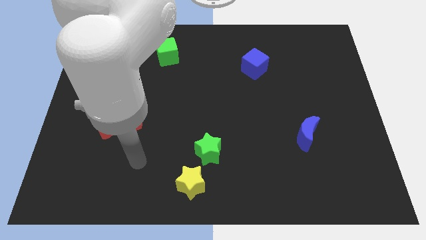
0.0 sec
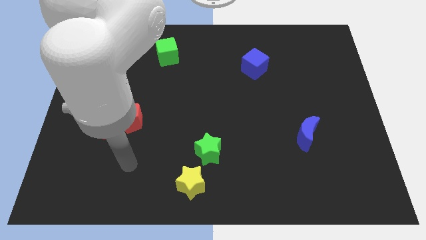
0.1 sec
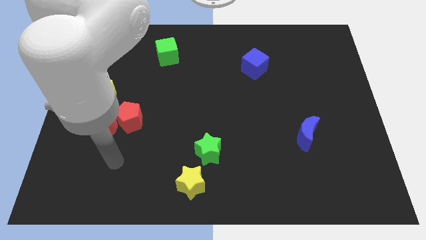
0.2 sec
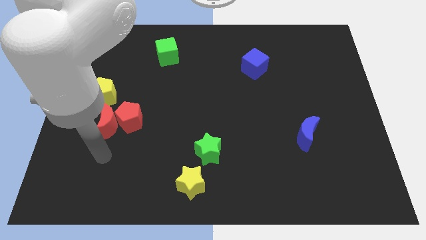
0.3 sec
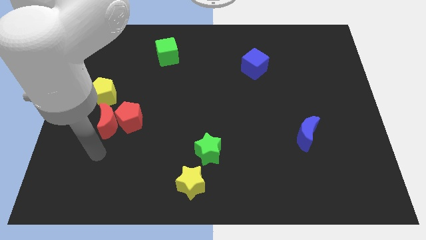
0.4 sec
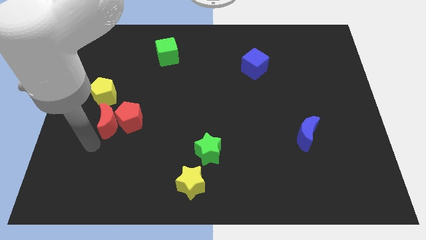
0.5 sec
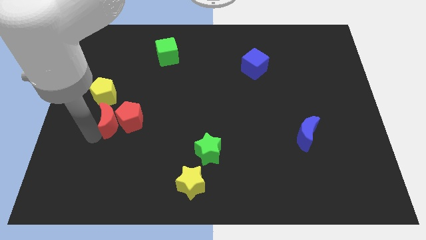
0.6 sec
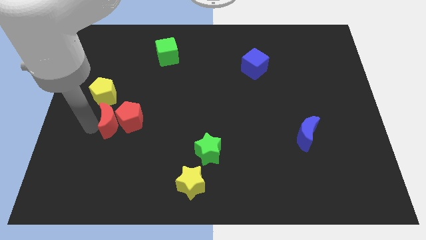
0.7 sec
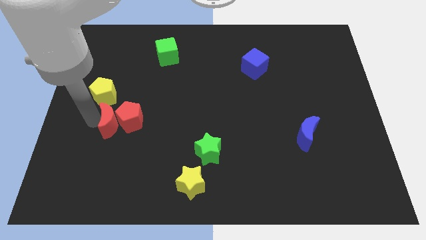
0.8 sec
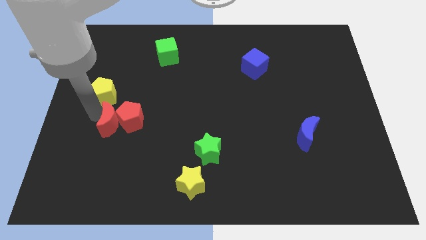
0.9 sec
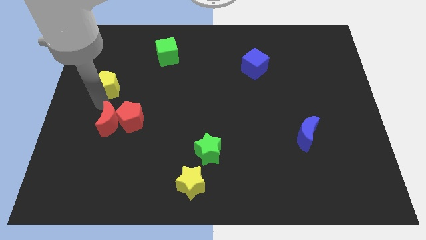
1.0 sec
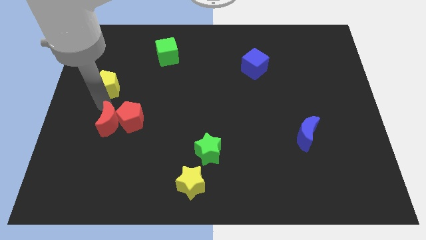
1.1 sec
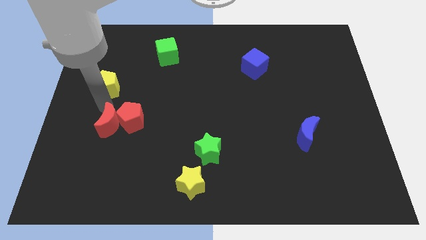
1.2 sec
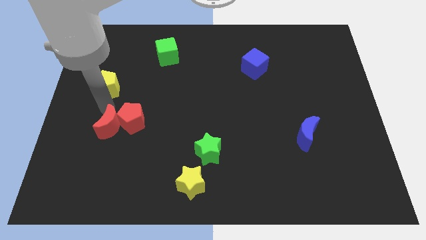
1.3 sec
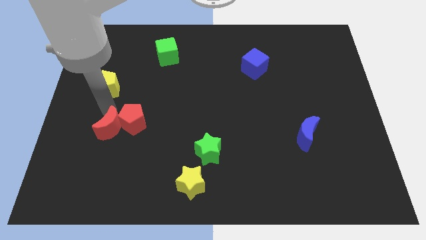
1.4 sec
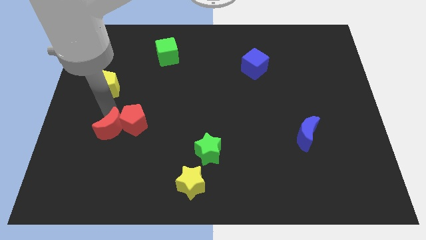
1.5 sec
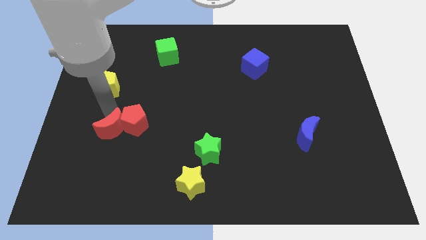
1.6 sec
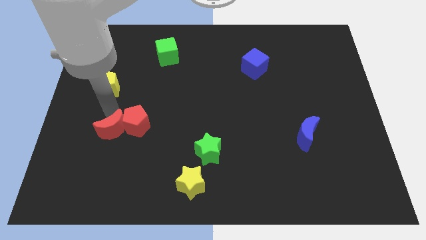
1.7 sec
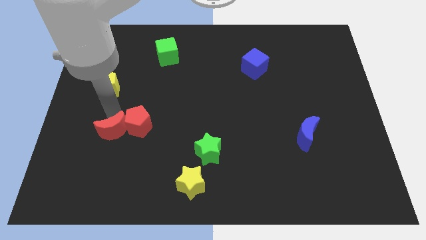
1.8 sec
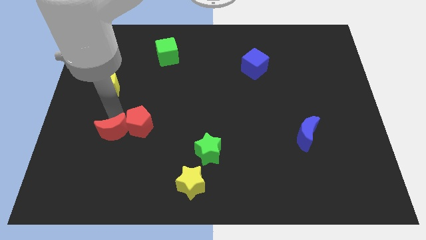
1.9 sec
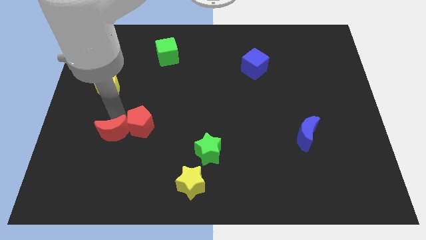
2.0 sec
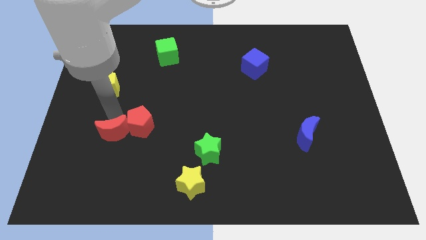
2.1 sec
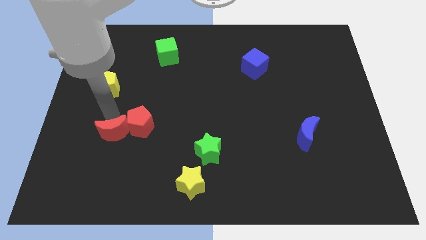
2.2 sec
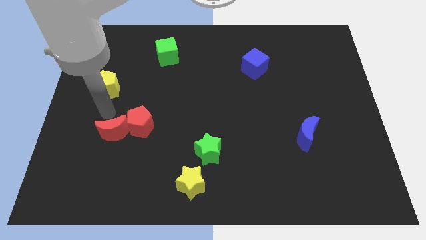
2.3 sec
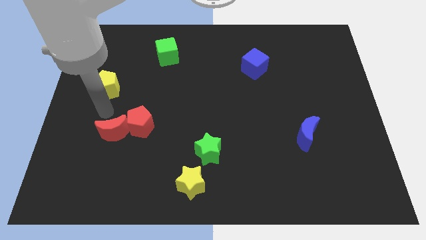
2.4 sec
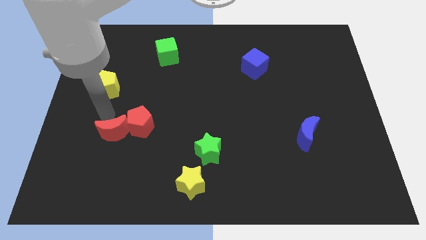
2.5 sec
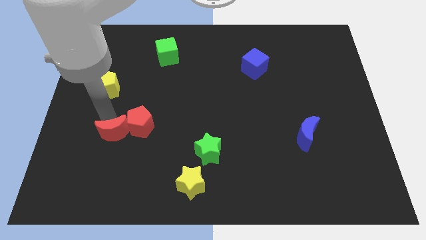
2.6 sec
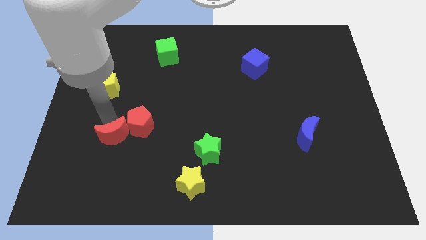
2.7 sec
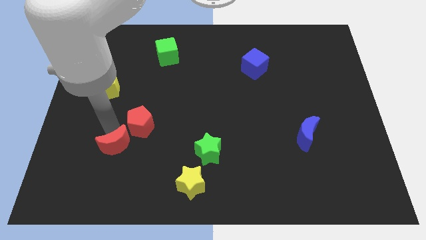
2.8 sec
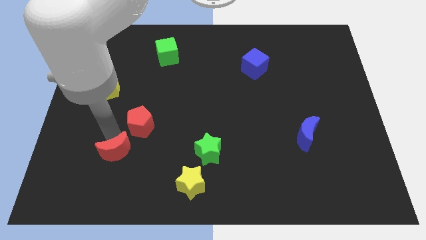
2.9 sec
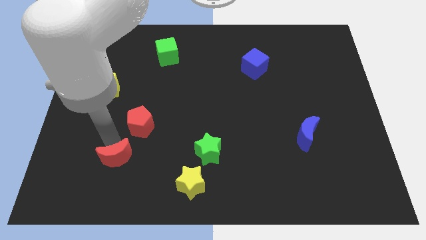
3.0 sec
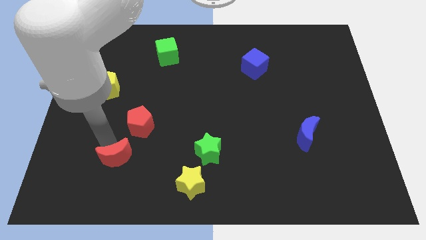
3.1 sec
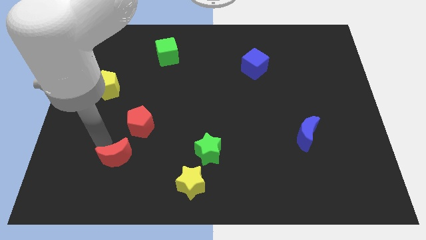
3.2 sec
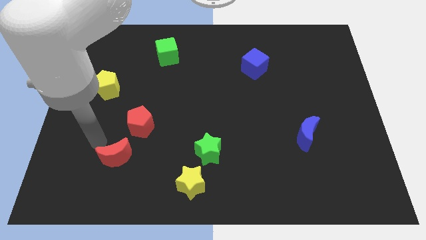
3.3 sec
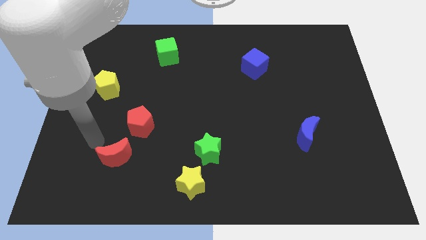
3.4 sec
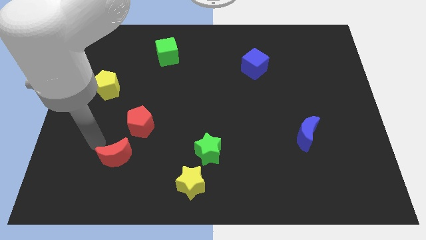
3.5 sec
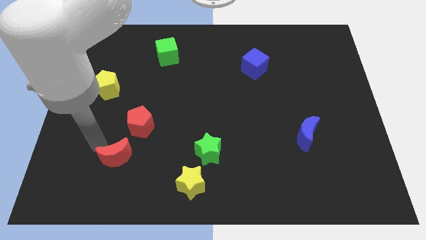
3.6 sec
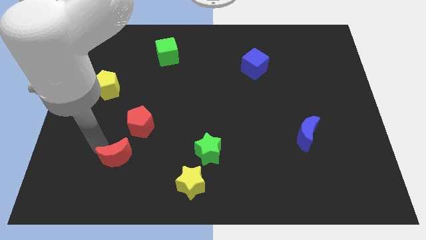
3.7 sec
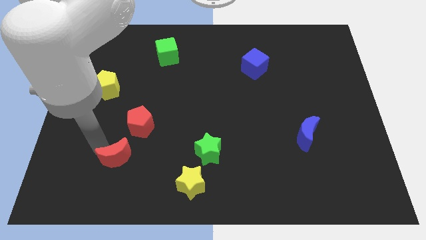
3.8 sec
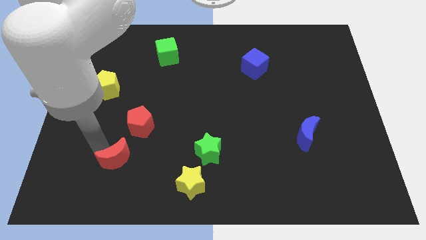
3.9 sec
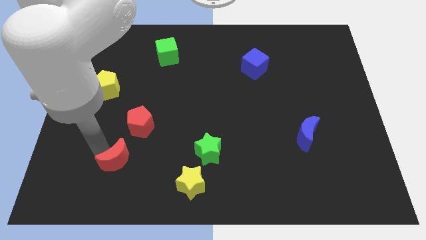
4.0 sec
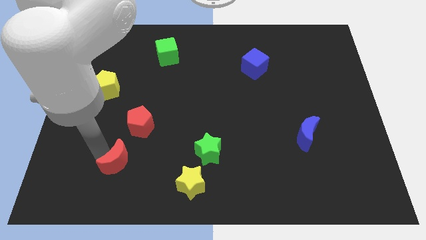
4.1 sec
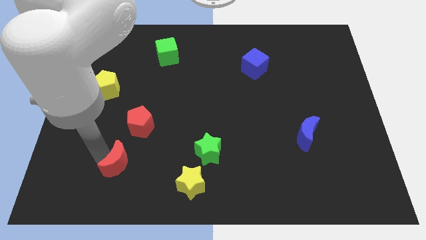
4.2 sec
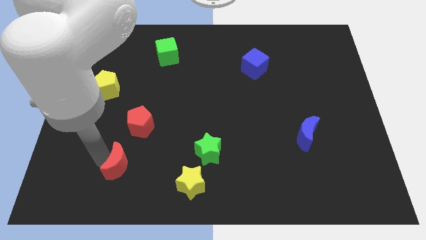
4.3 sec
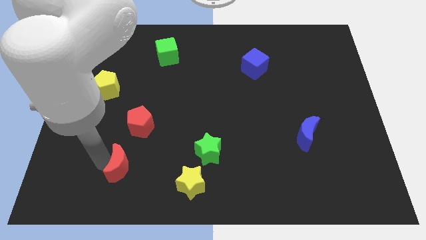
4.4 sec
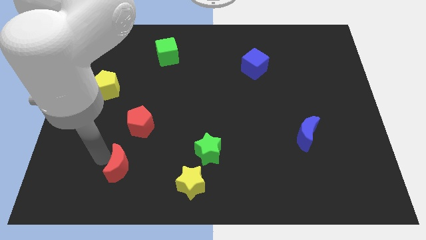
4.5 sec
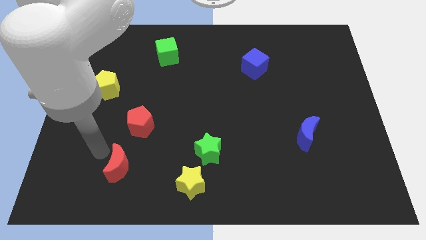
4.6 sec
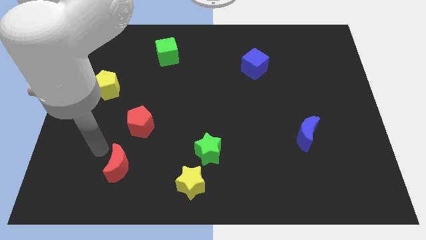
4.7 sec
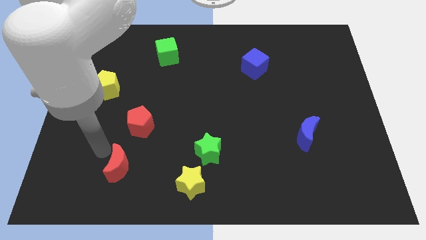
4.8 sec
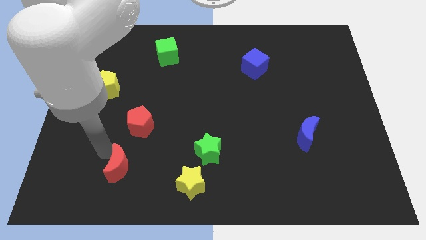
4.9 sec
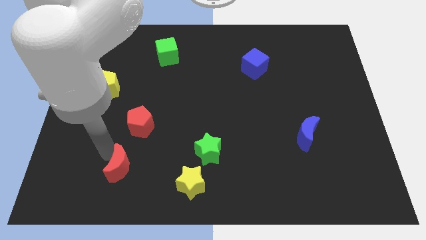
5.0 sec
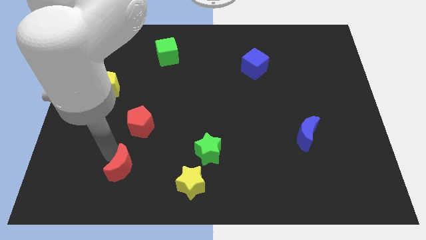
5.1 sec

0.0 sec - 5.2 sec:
slide the red moon to the left side of the yellow star

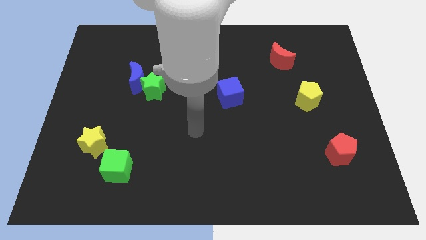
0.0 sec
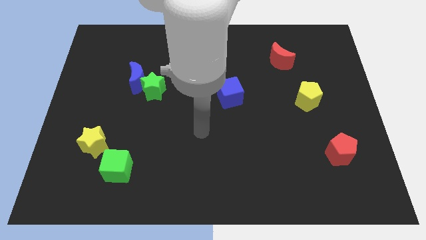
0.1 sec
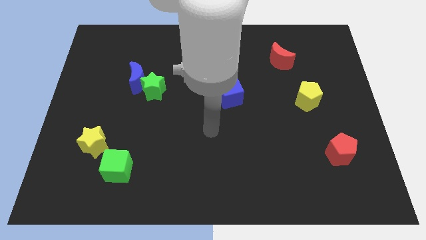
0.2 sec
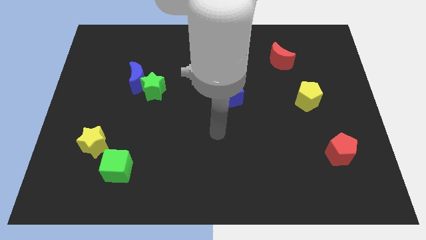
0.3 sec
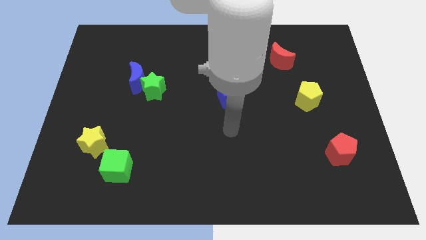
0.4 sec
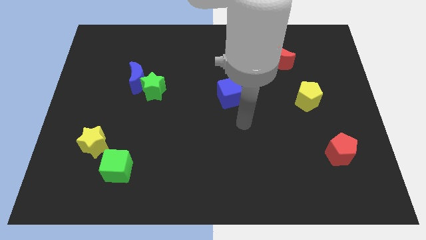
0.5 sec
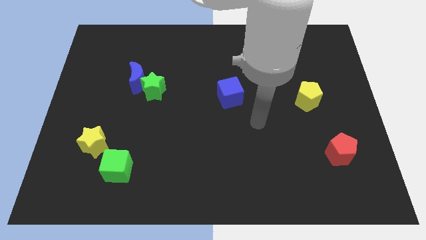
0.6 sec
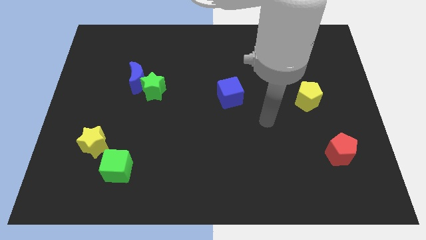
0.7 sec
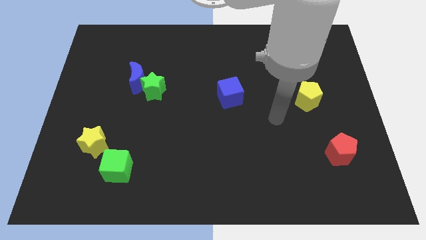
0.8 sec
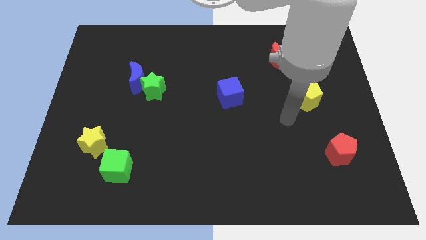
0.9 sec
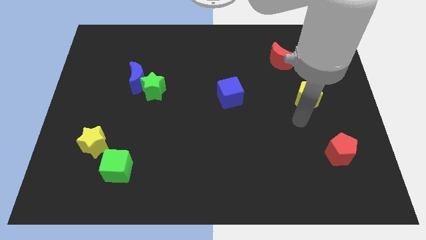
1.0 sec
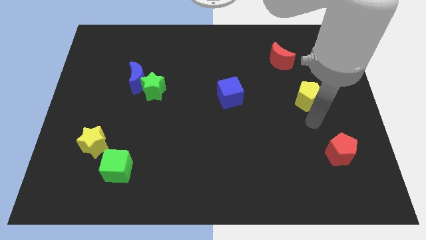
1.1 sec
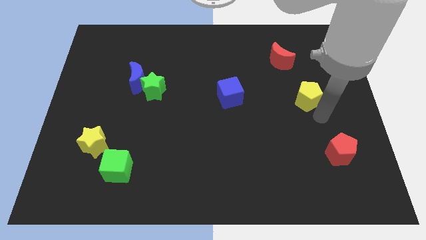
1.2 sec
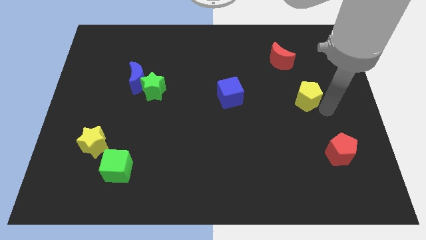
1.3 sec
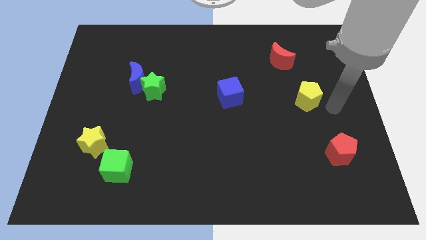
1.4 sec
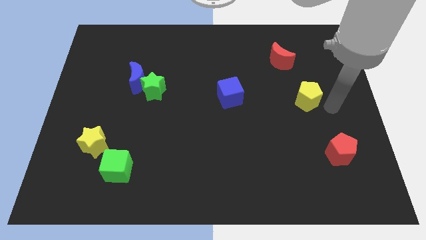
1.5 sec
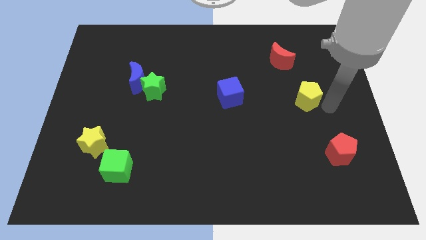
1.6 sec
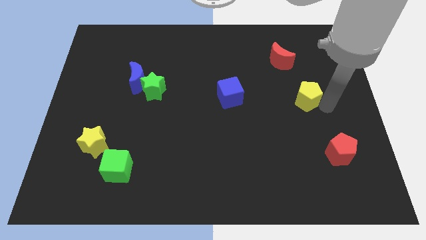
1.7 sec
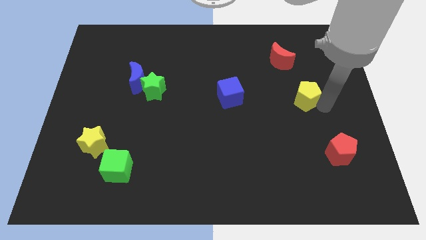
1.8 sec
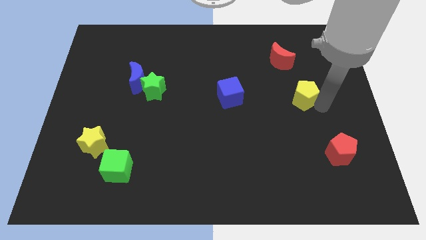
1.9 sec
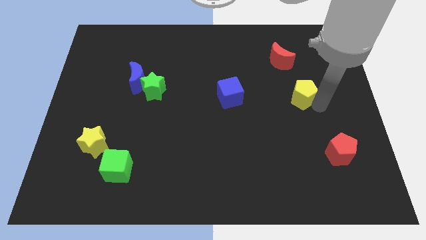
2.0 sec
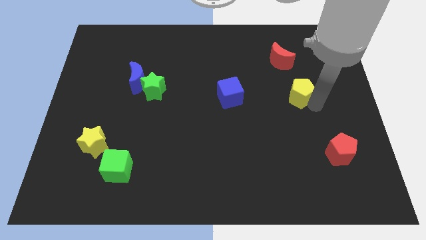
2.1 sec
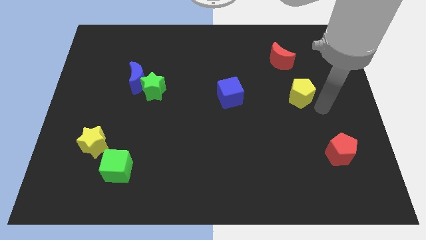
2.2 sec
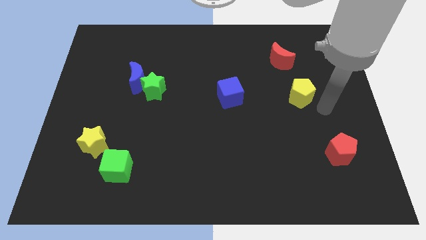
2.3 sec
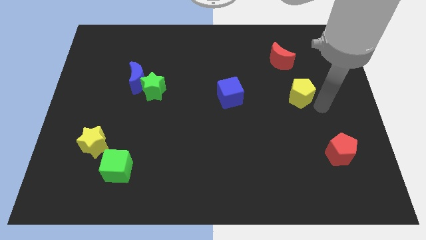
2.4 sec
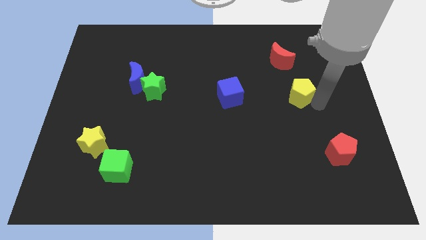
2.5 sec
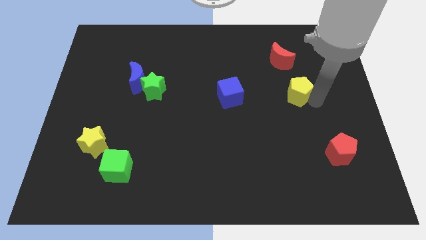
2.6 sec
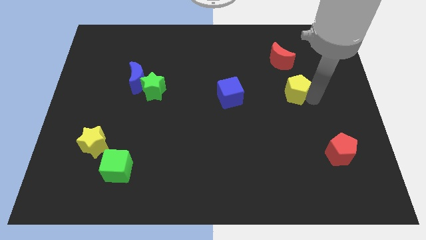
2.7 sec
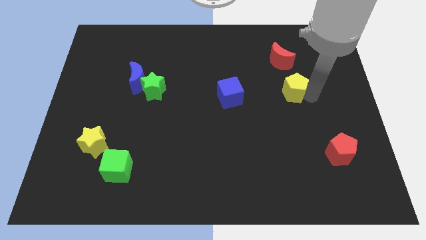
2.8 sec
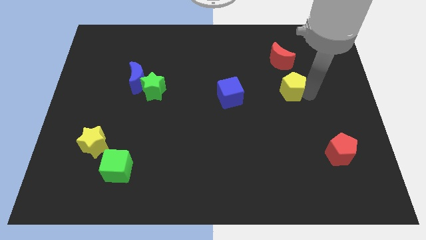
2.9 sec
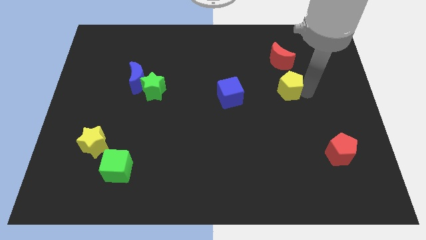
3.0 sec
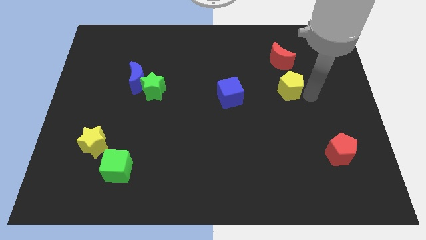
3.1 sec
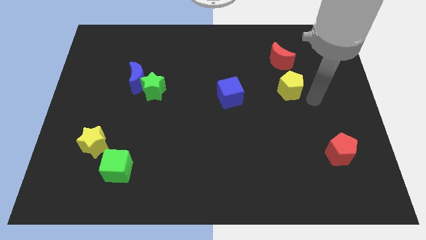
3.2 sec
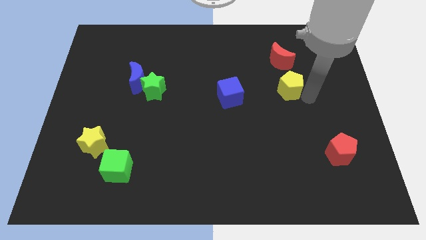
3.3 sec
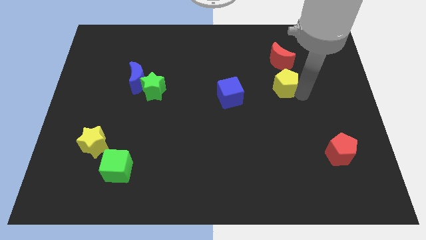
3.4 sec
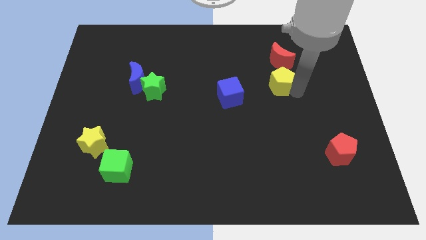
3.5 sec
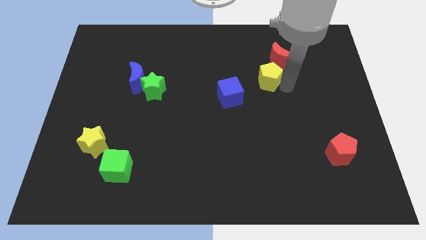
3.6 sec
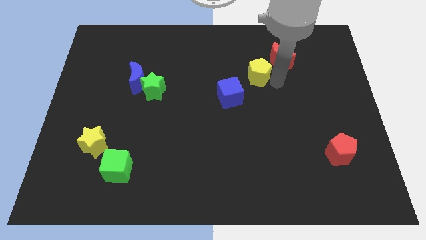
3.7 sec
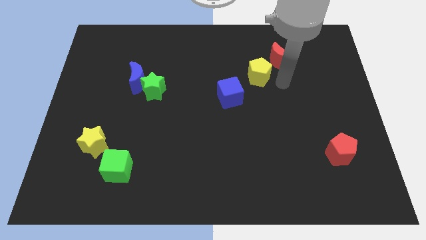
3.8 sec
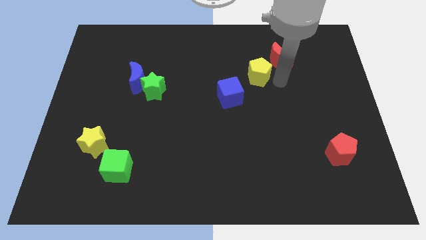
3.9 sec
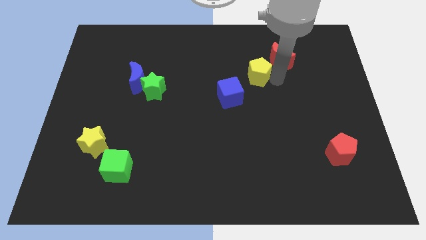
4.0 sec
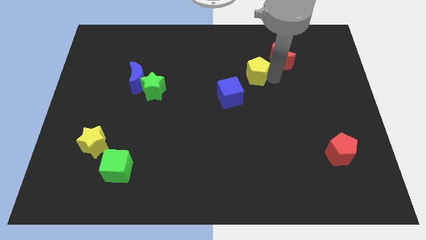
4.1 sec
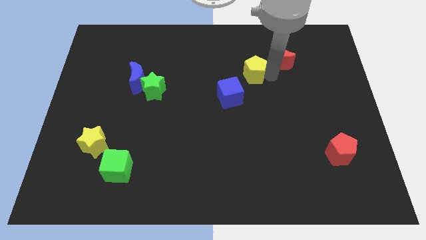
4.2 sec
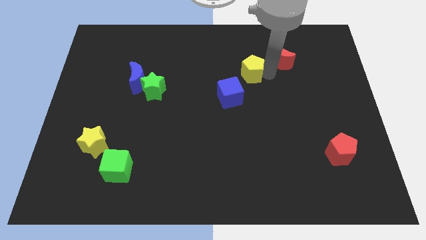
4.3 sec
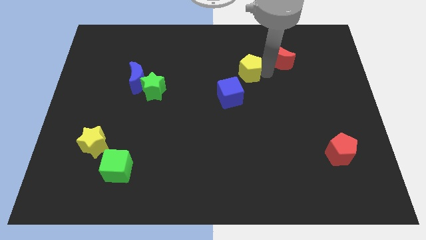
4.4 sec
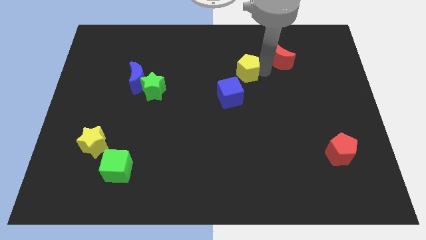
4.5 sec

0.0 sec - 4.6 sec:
push the yellow pentagon above the blue cube
